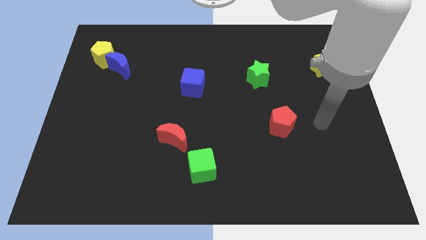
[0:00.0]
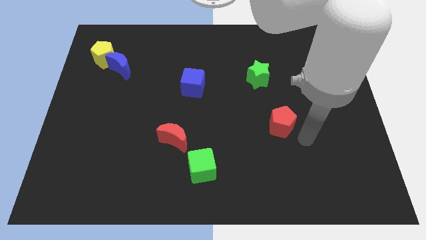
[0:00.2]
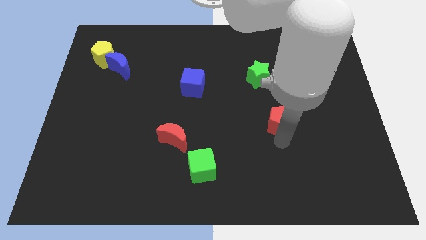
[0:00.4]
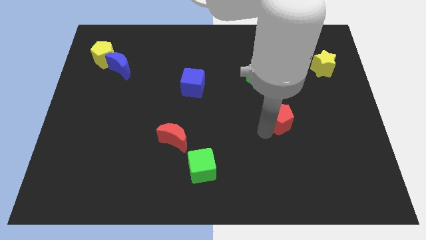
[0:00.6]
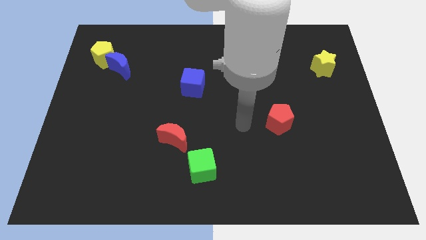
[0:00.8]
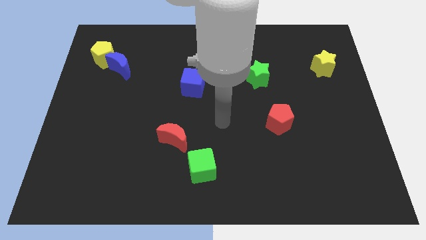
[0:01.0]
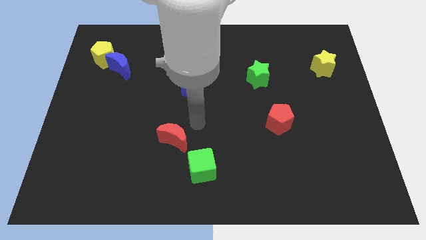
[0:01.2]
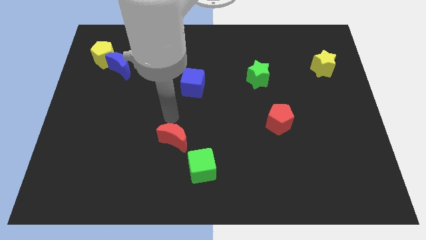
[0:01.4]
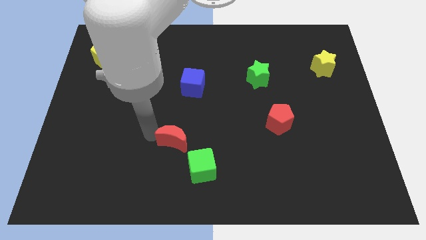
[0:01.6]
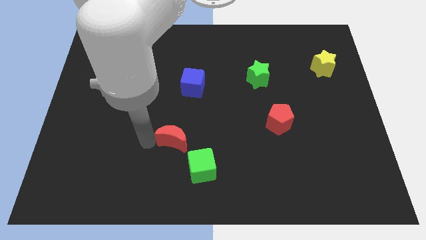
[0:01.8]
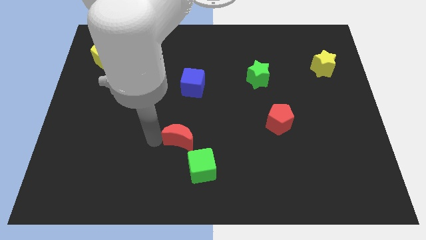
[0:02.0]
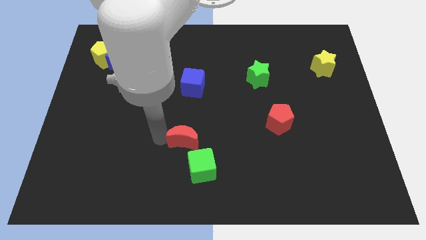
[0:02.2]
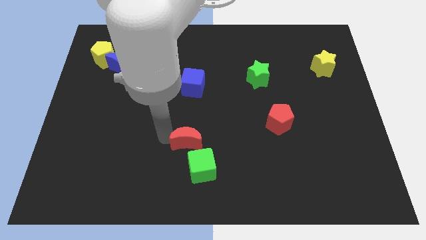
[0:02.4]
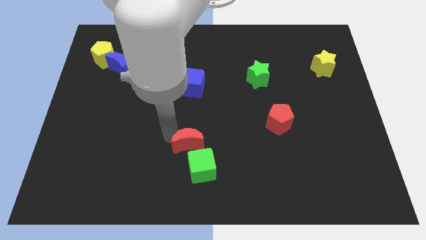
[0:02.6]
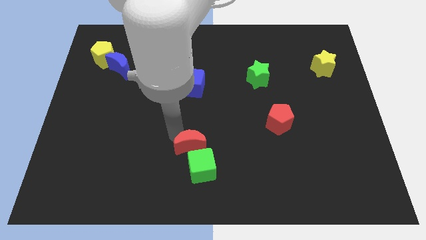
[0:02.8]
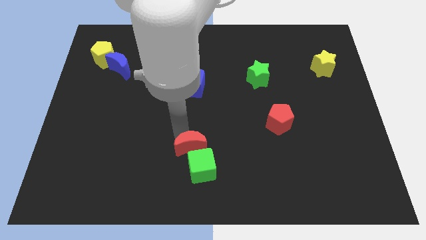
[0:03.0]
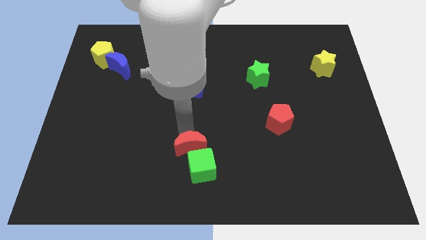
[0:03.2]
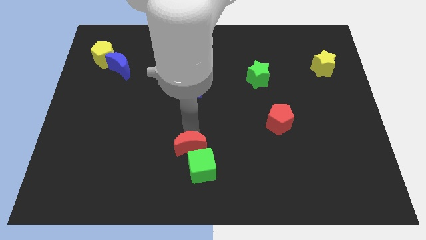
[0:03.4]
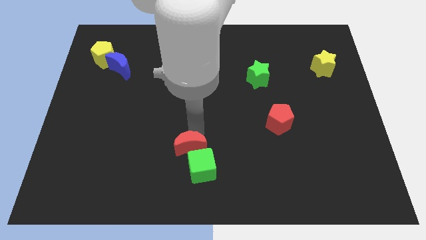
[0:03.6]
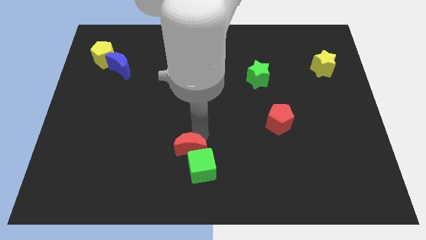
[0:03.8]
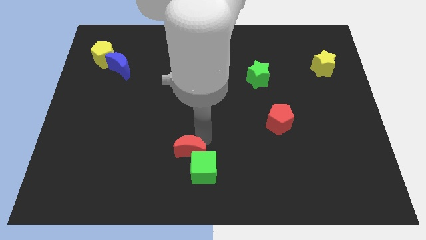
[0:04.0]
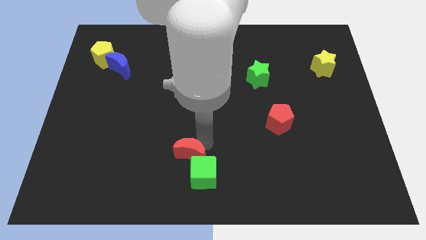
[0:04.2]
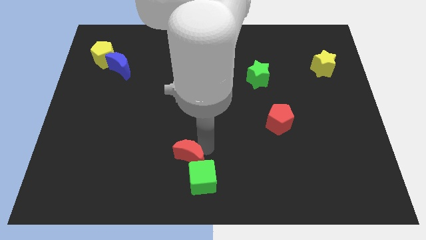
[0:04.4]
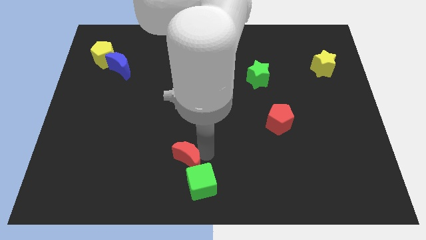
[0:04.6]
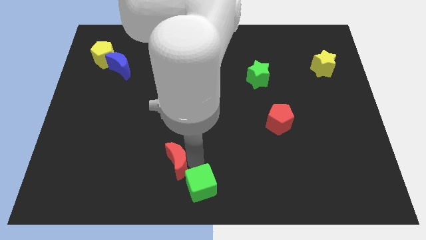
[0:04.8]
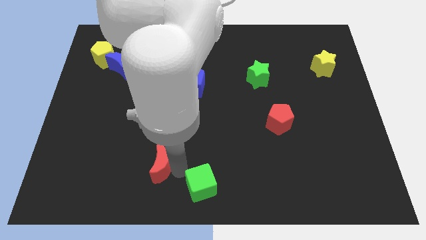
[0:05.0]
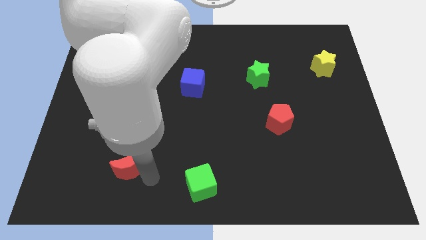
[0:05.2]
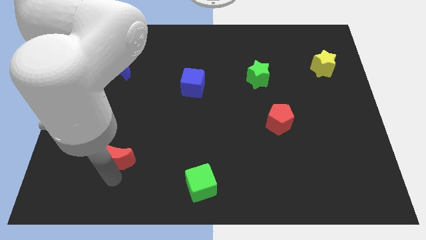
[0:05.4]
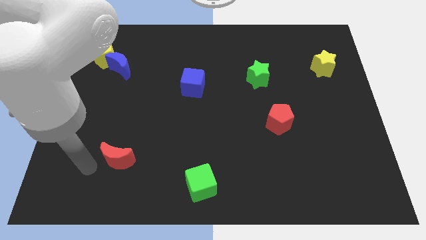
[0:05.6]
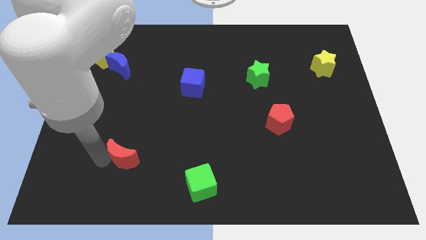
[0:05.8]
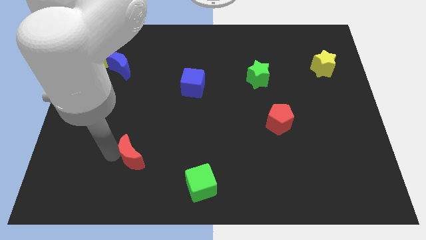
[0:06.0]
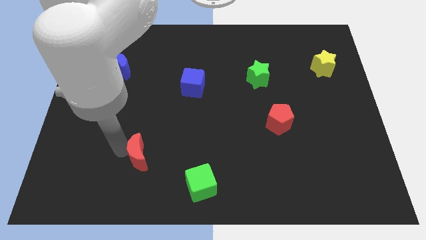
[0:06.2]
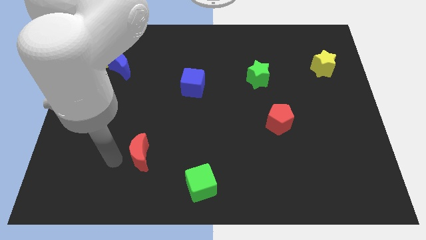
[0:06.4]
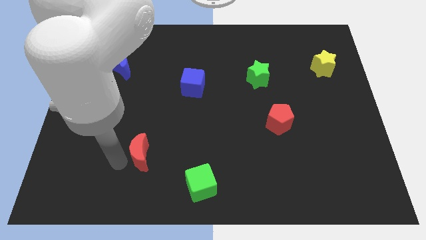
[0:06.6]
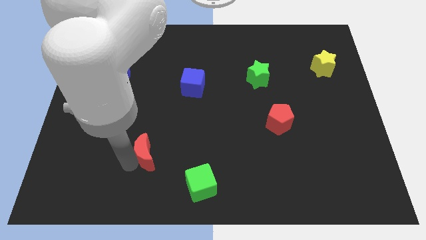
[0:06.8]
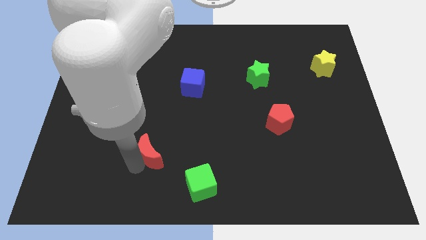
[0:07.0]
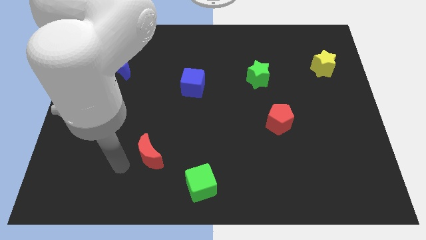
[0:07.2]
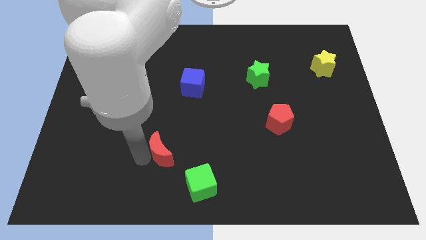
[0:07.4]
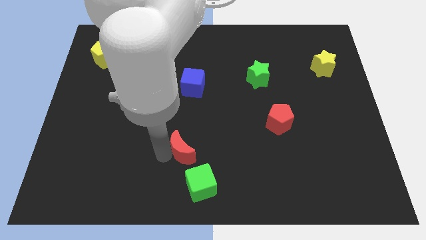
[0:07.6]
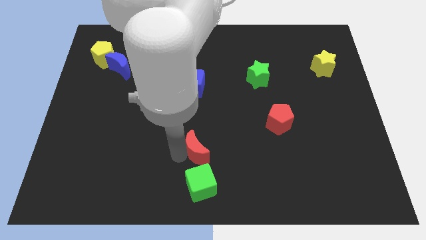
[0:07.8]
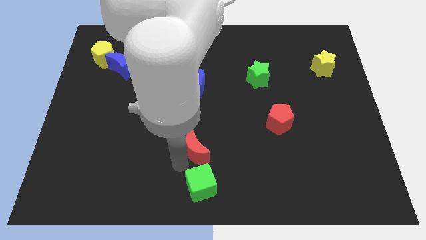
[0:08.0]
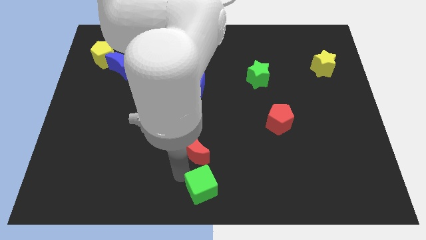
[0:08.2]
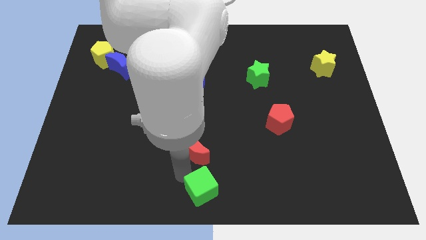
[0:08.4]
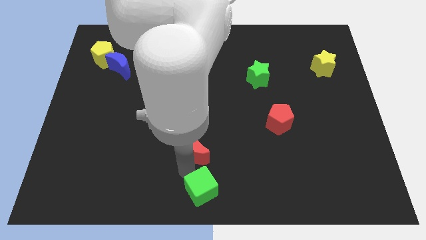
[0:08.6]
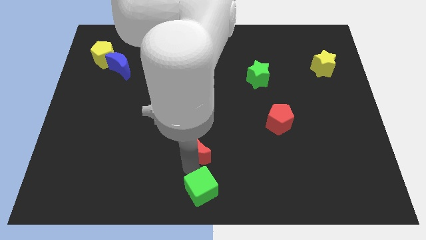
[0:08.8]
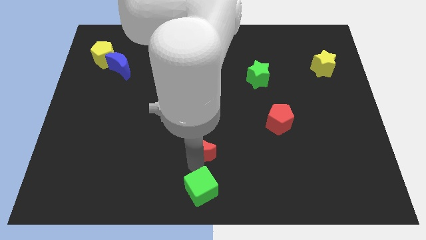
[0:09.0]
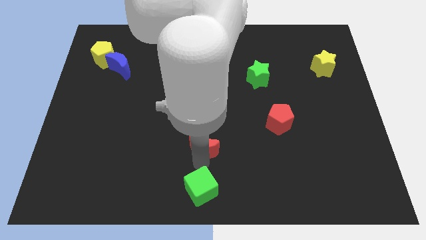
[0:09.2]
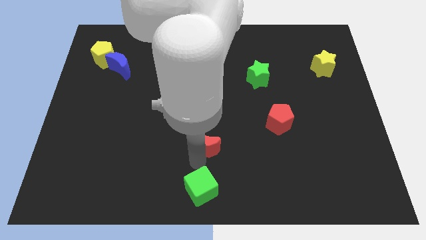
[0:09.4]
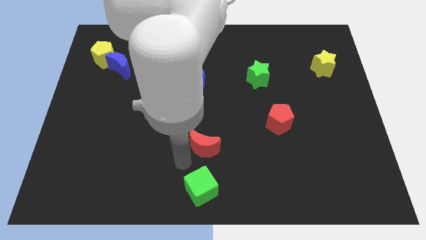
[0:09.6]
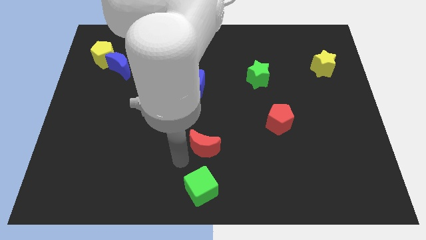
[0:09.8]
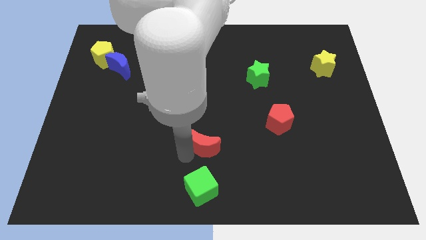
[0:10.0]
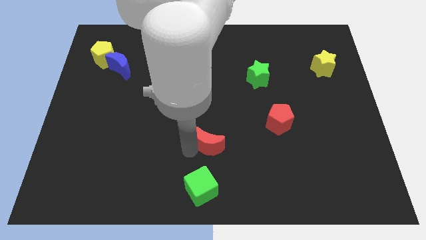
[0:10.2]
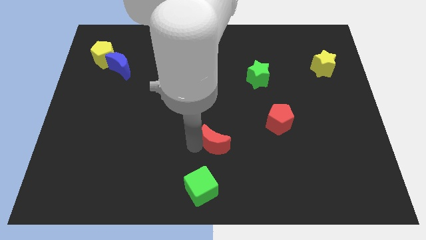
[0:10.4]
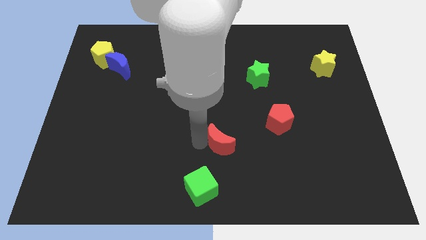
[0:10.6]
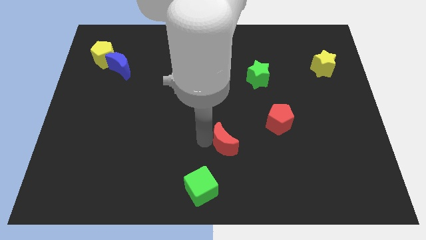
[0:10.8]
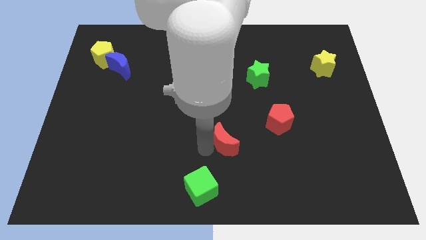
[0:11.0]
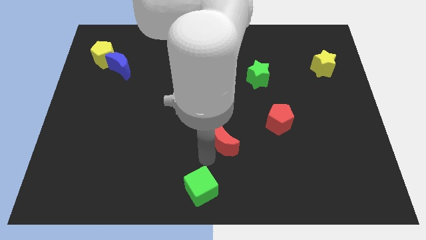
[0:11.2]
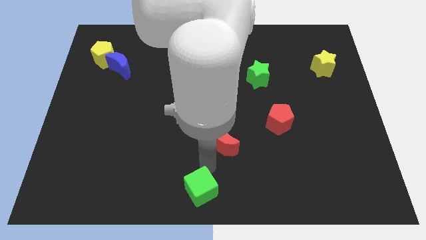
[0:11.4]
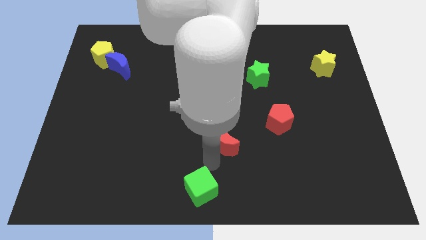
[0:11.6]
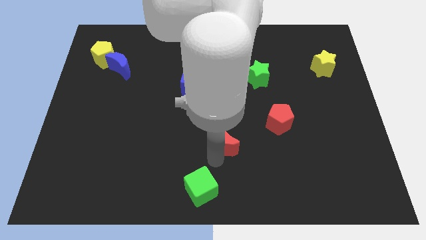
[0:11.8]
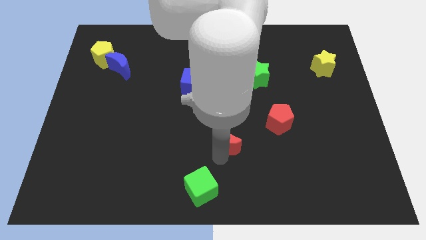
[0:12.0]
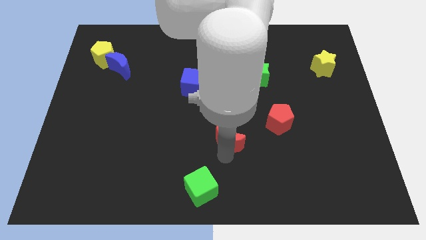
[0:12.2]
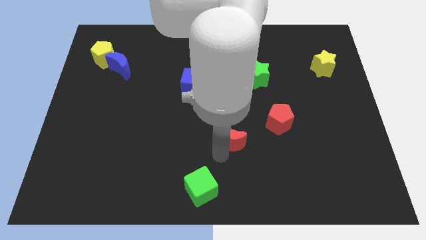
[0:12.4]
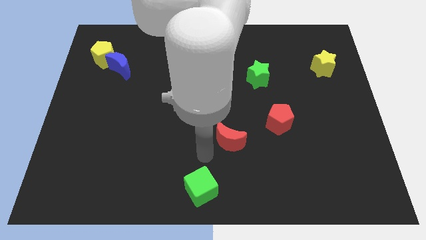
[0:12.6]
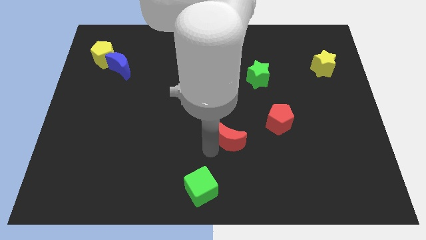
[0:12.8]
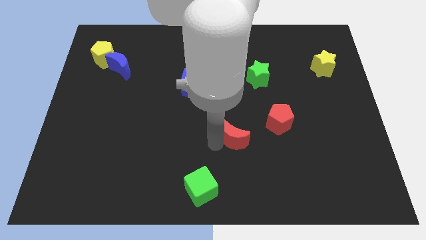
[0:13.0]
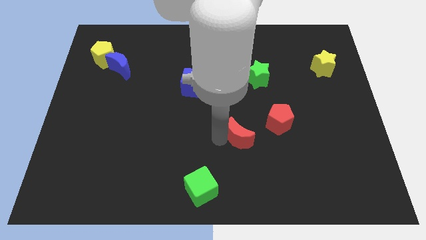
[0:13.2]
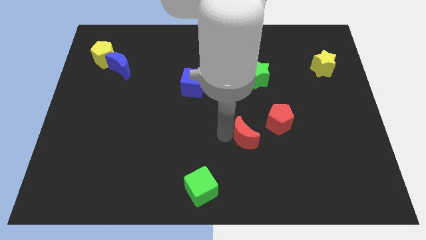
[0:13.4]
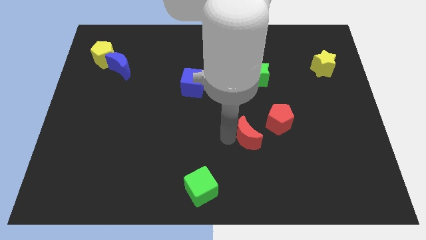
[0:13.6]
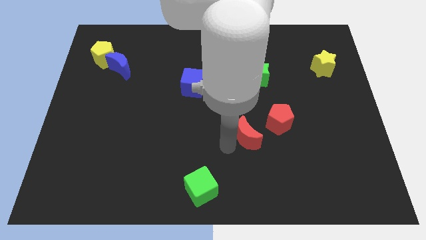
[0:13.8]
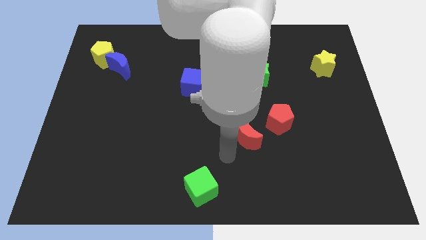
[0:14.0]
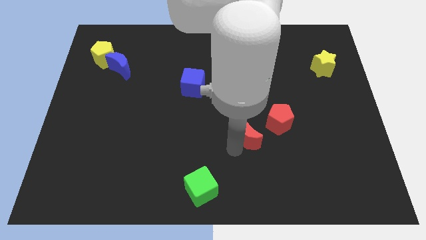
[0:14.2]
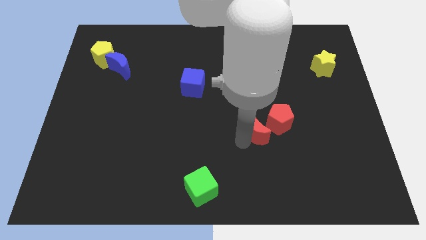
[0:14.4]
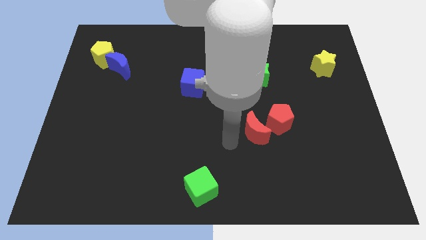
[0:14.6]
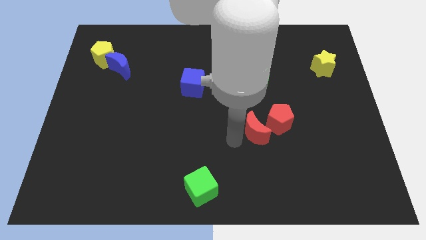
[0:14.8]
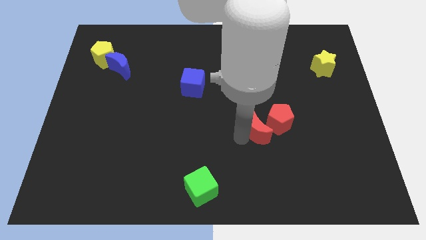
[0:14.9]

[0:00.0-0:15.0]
put the red moon next to the red pentagon
